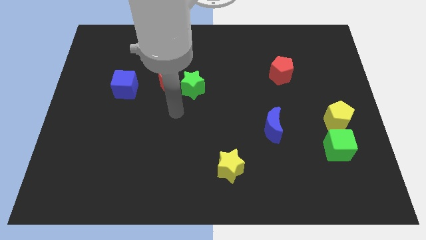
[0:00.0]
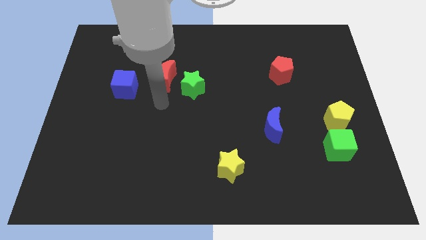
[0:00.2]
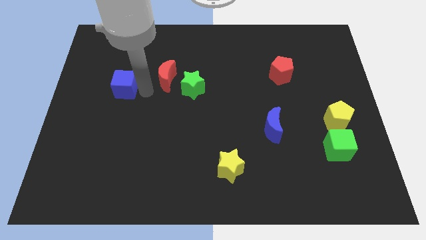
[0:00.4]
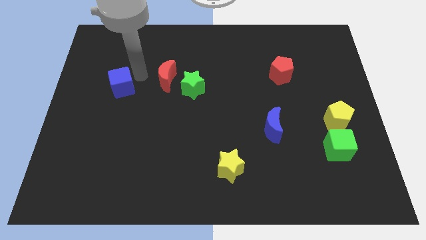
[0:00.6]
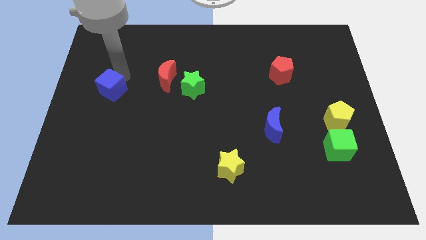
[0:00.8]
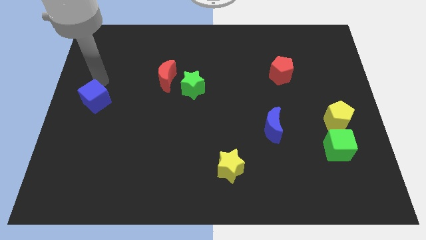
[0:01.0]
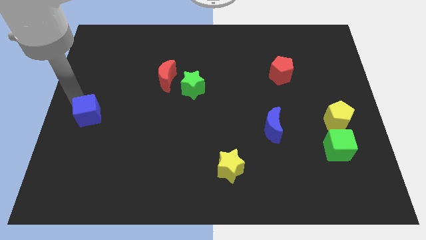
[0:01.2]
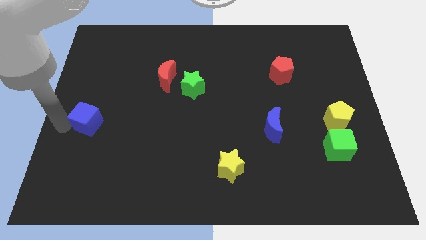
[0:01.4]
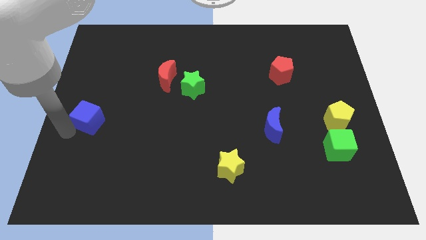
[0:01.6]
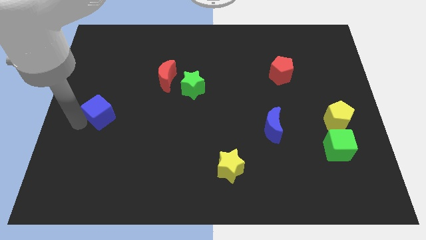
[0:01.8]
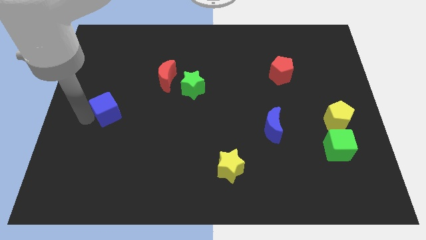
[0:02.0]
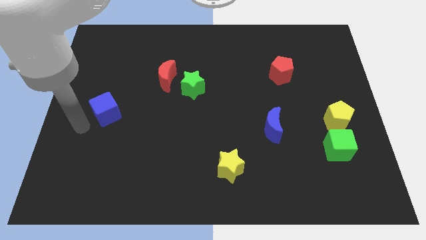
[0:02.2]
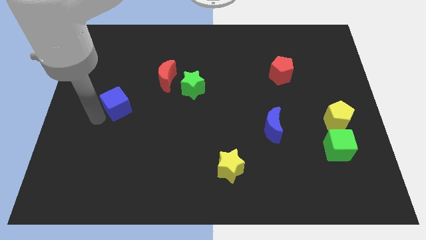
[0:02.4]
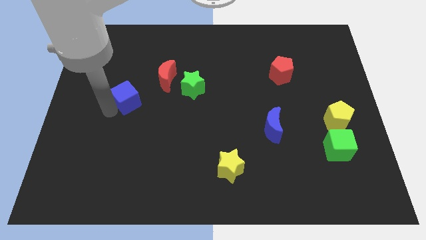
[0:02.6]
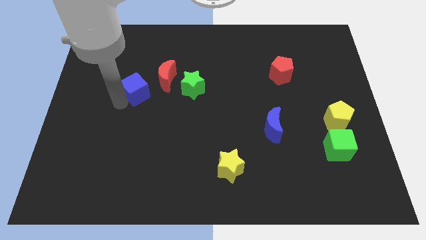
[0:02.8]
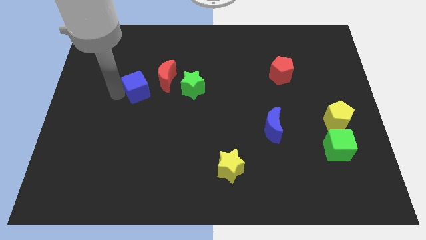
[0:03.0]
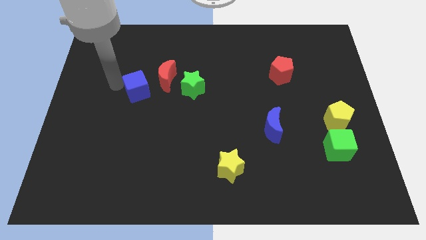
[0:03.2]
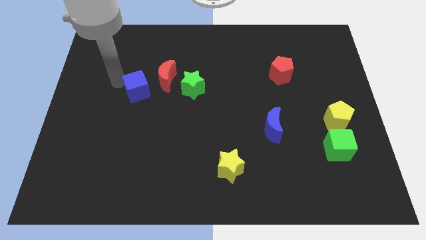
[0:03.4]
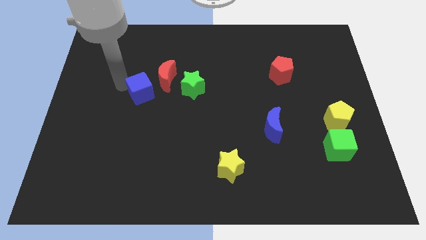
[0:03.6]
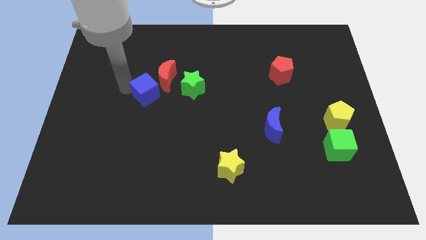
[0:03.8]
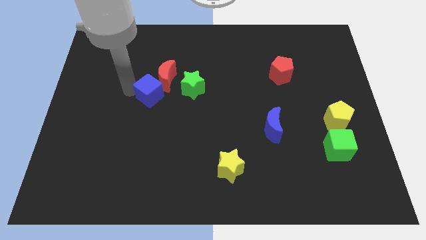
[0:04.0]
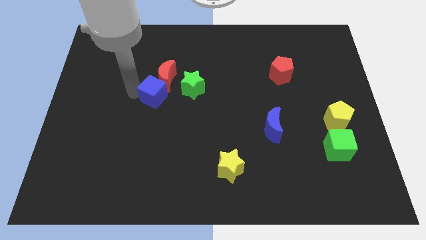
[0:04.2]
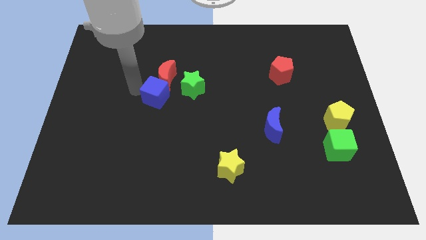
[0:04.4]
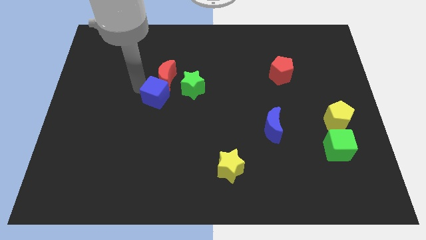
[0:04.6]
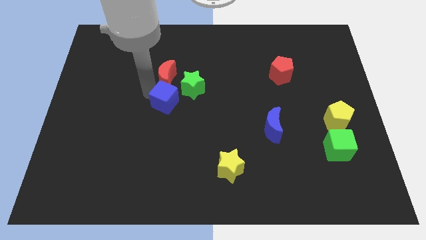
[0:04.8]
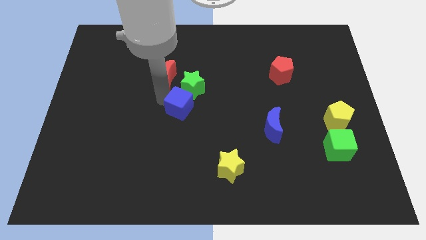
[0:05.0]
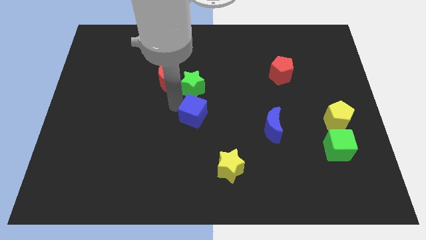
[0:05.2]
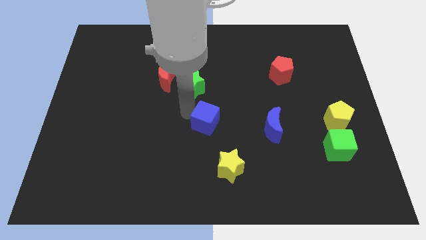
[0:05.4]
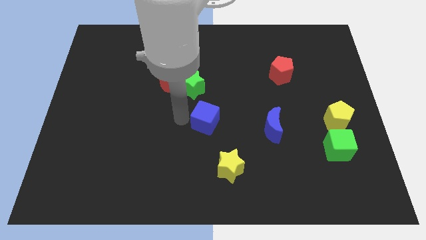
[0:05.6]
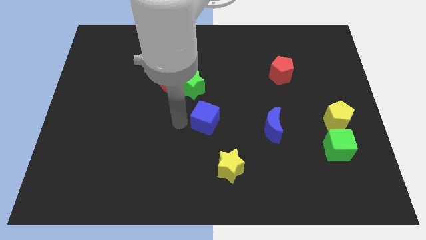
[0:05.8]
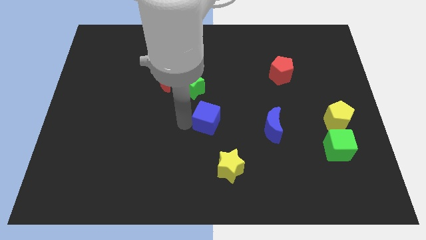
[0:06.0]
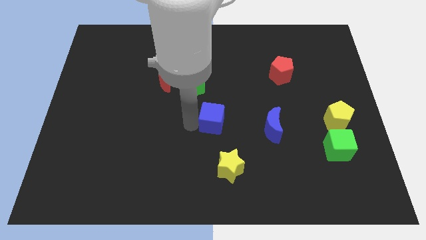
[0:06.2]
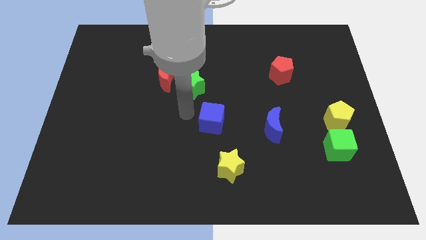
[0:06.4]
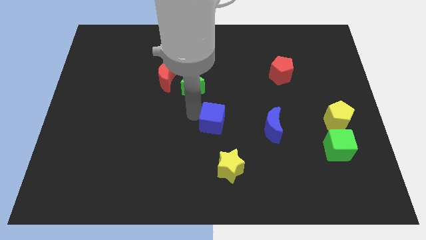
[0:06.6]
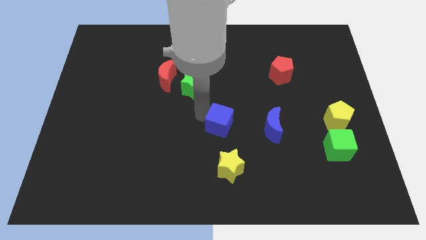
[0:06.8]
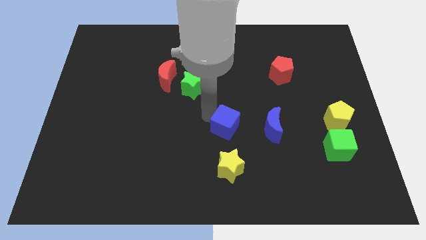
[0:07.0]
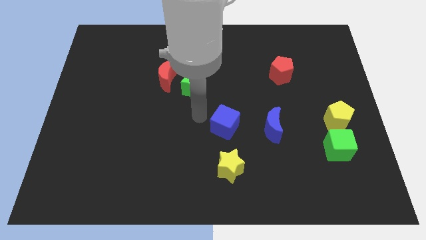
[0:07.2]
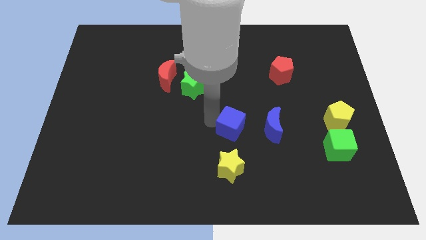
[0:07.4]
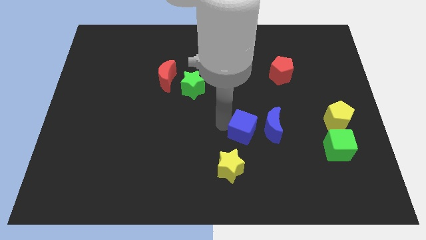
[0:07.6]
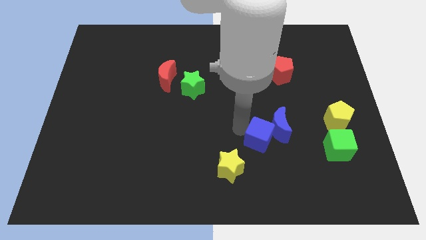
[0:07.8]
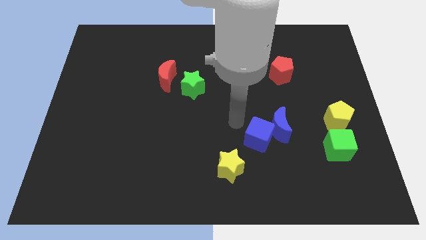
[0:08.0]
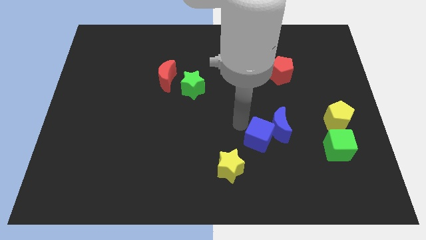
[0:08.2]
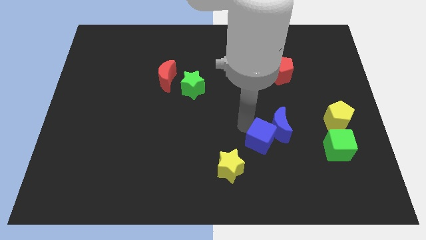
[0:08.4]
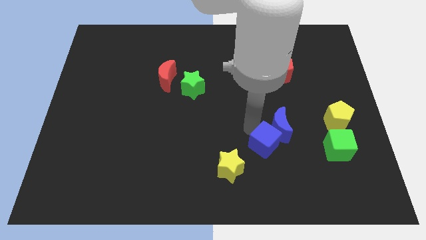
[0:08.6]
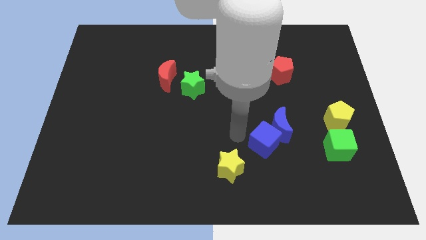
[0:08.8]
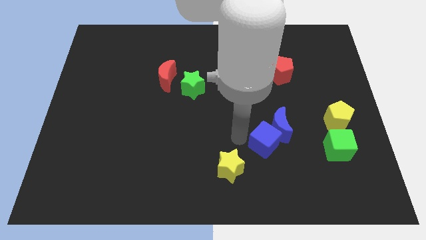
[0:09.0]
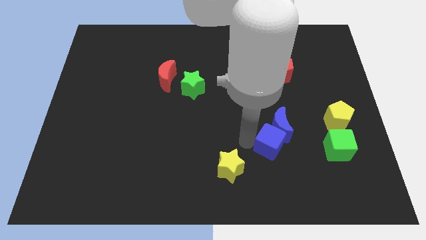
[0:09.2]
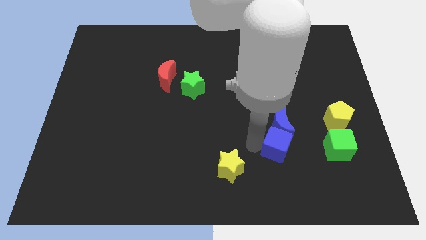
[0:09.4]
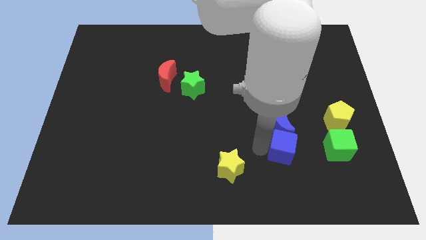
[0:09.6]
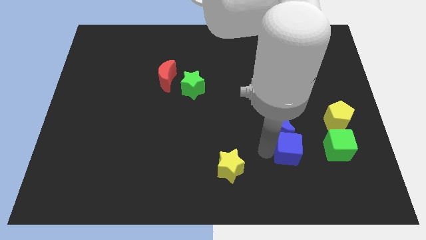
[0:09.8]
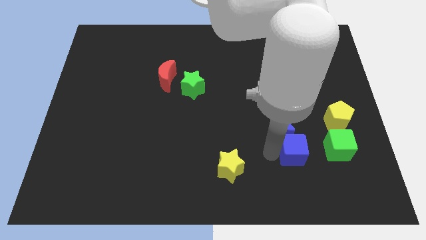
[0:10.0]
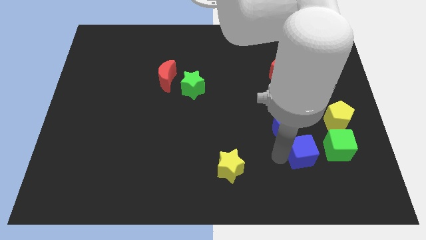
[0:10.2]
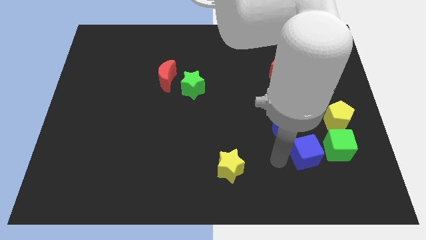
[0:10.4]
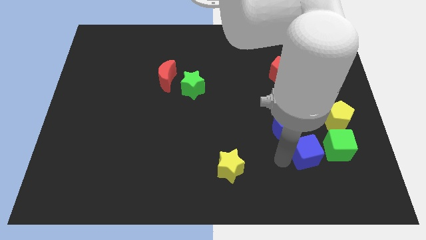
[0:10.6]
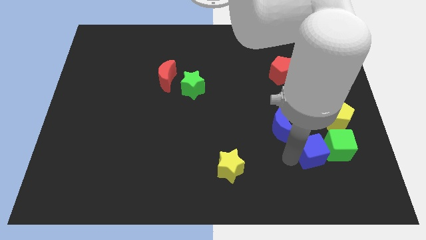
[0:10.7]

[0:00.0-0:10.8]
move the blue cube next to the green cube

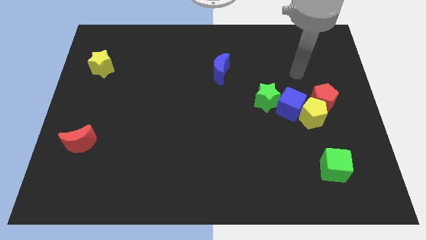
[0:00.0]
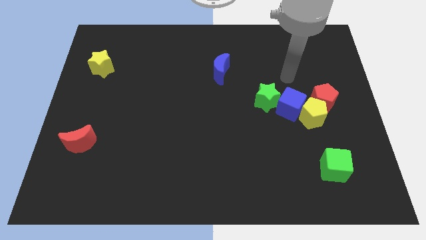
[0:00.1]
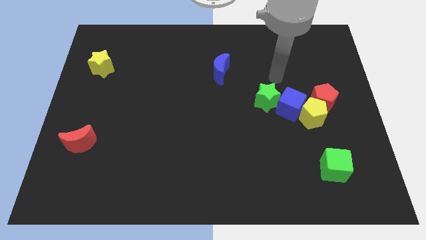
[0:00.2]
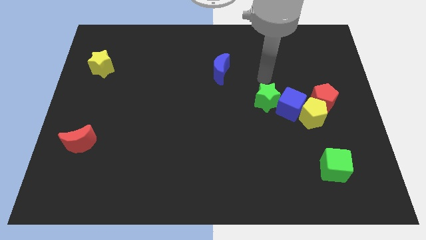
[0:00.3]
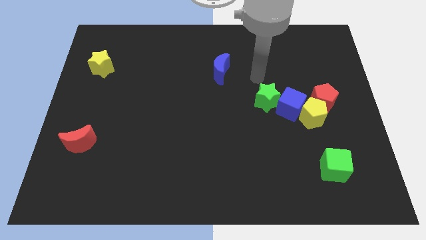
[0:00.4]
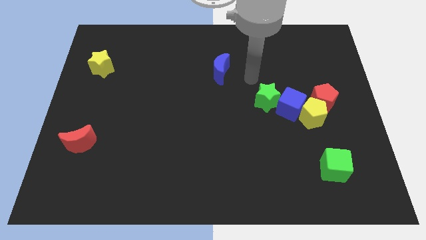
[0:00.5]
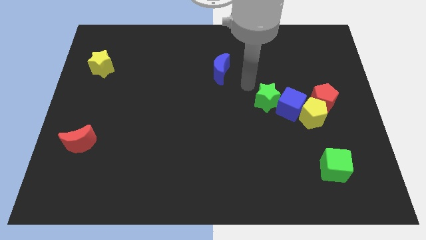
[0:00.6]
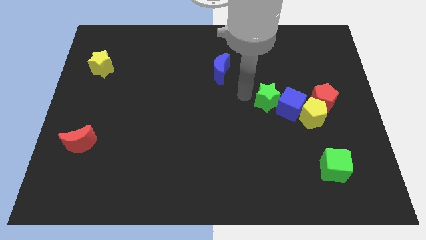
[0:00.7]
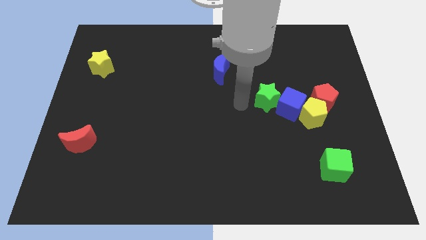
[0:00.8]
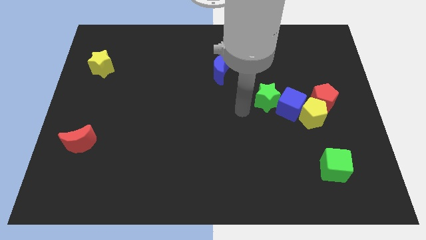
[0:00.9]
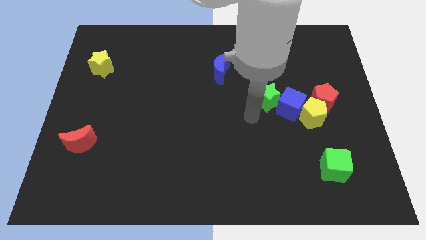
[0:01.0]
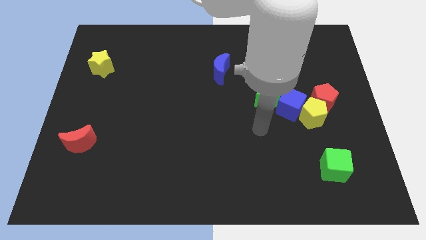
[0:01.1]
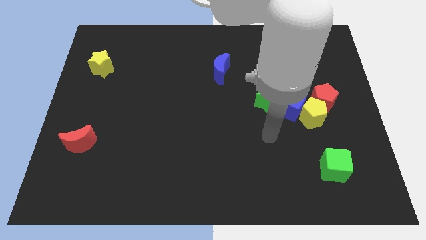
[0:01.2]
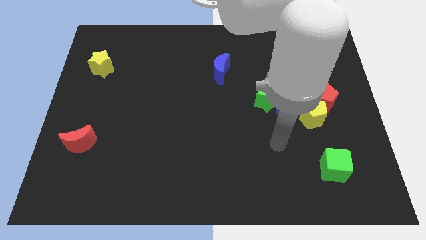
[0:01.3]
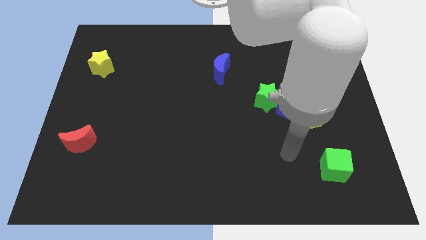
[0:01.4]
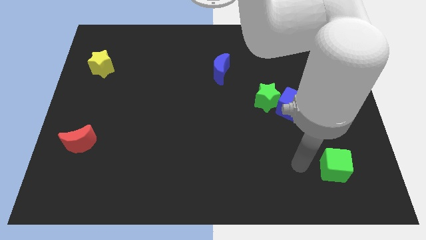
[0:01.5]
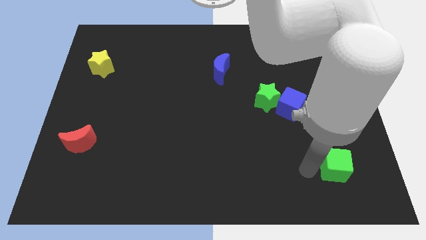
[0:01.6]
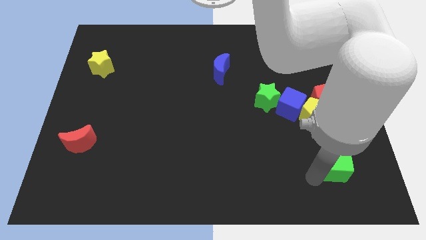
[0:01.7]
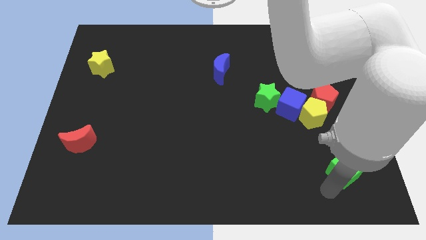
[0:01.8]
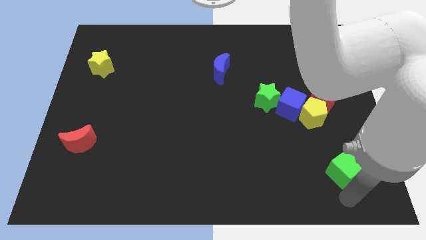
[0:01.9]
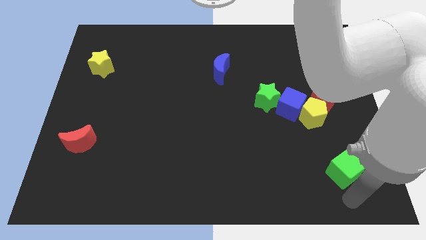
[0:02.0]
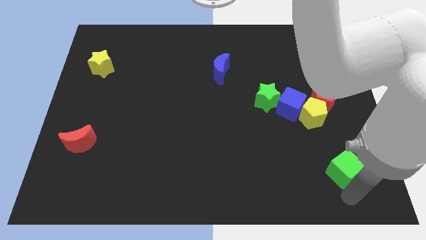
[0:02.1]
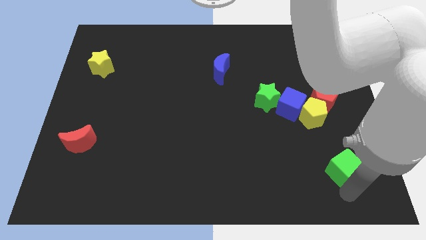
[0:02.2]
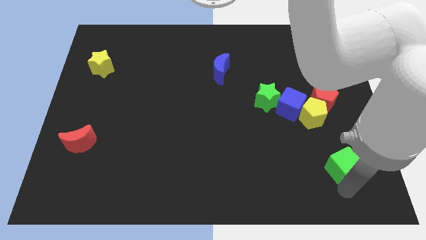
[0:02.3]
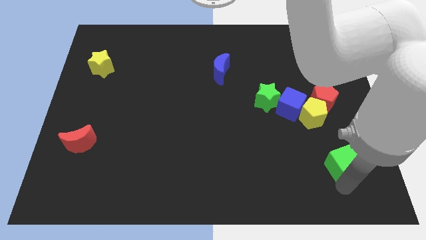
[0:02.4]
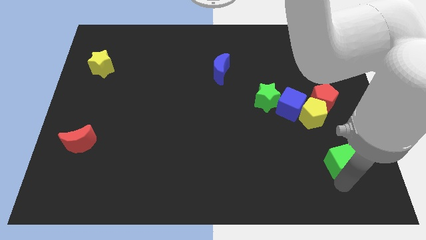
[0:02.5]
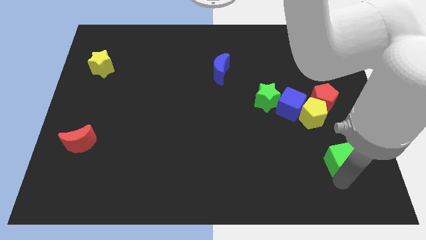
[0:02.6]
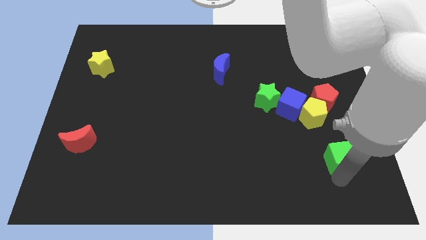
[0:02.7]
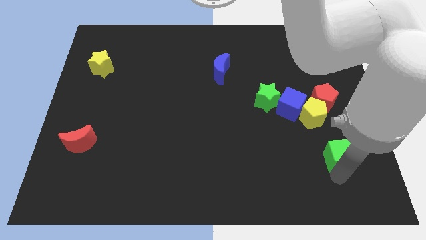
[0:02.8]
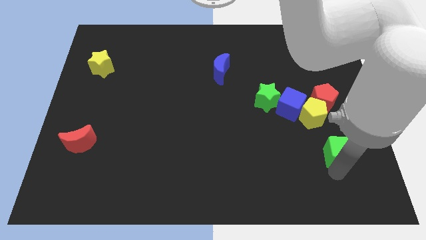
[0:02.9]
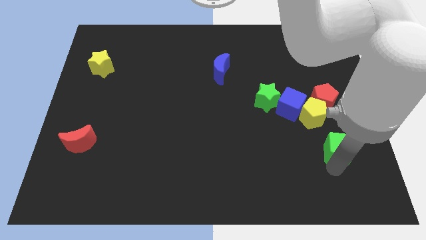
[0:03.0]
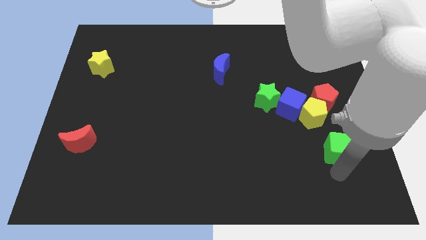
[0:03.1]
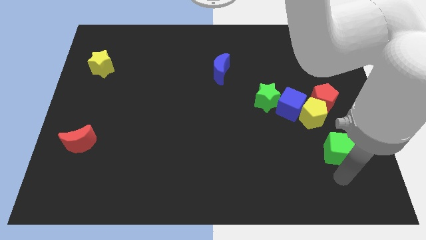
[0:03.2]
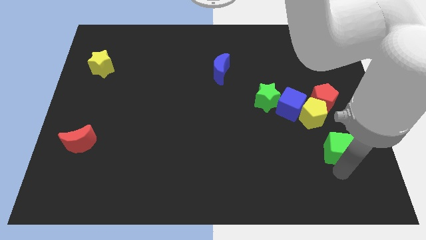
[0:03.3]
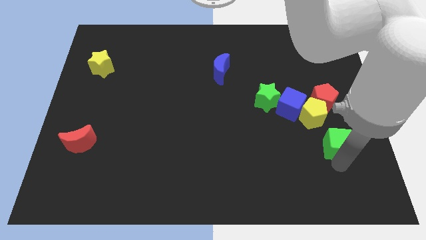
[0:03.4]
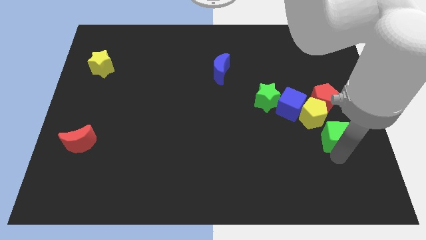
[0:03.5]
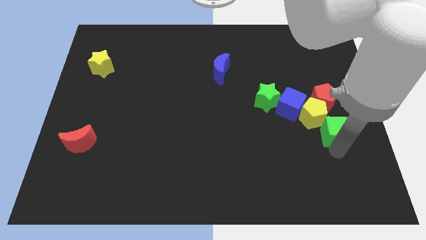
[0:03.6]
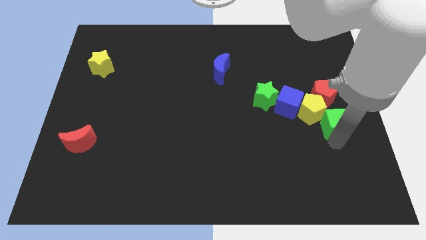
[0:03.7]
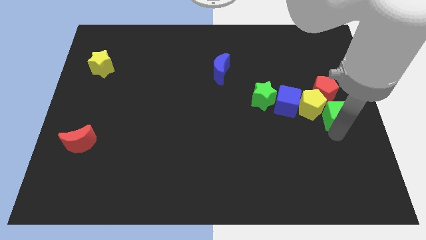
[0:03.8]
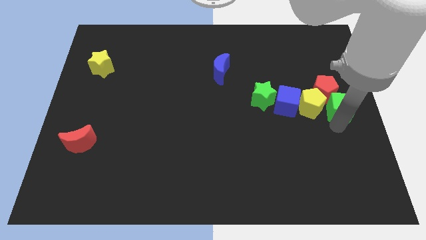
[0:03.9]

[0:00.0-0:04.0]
move the green cube close to the red pentagon
